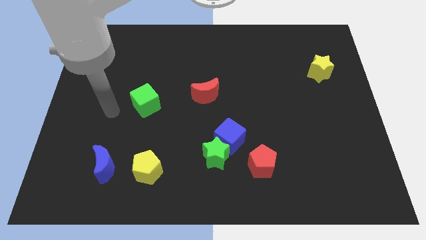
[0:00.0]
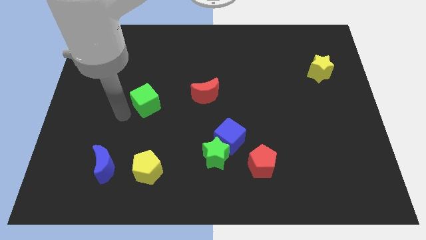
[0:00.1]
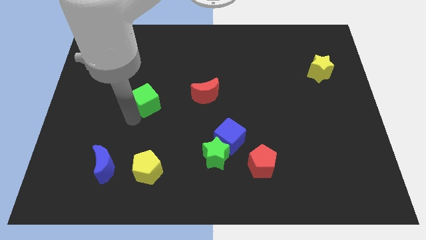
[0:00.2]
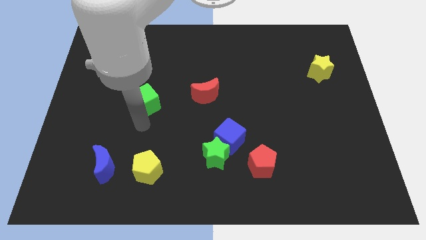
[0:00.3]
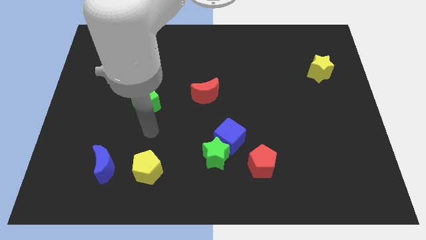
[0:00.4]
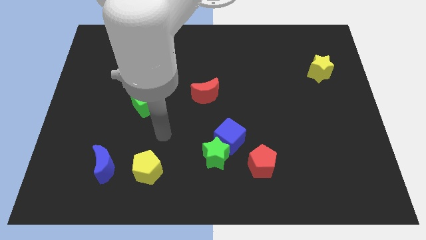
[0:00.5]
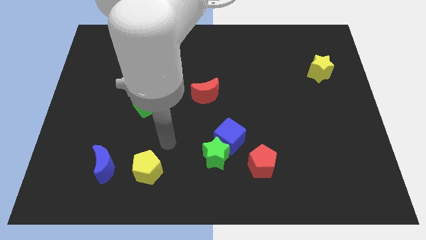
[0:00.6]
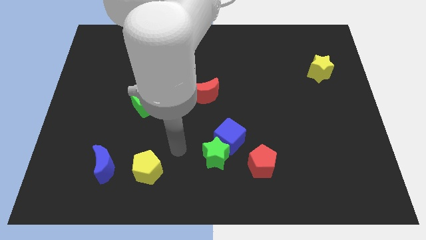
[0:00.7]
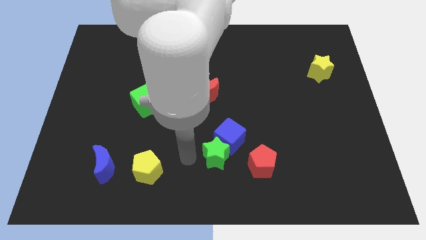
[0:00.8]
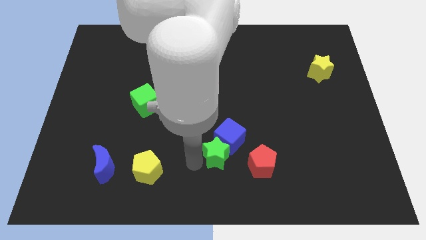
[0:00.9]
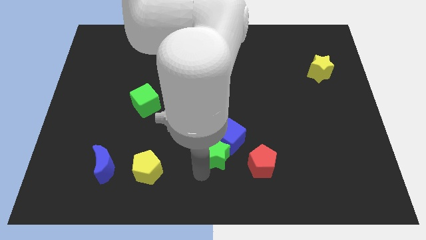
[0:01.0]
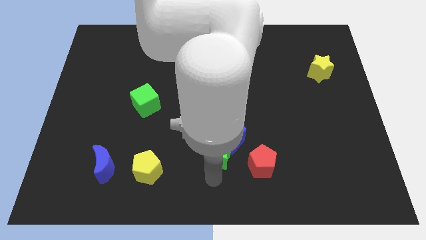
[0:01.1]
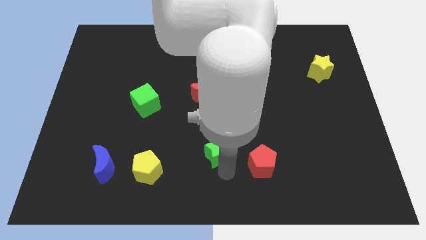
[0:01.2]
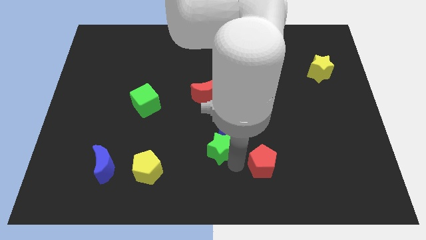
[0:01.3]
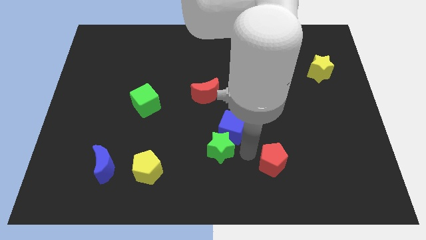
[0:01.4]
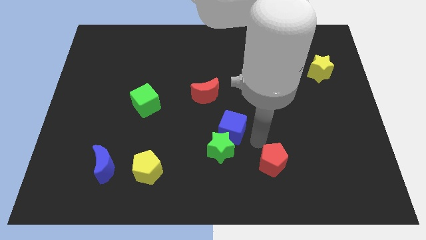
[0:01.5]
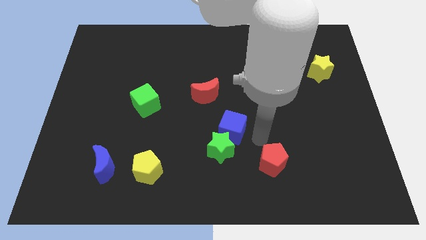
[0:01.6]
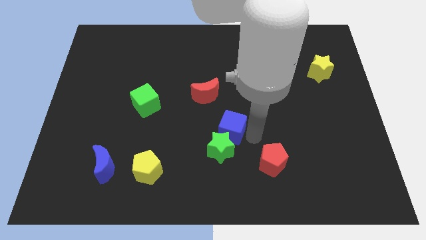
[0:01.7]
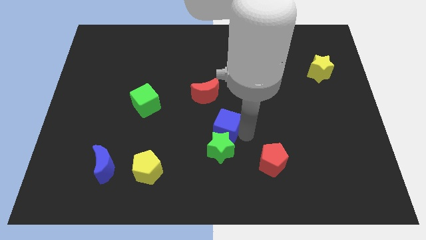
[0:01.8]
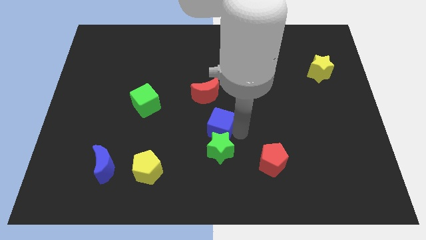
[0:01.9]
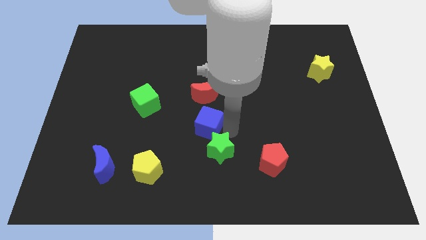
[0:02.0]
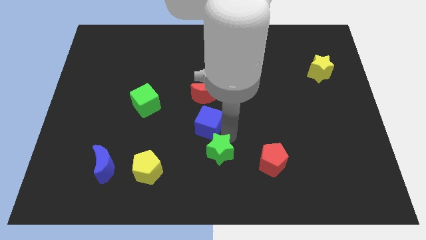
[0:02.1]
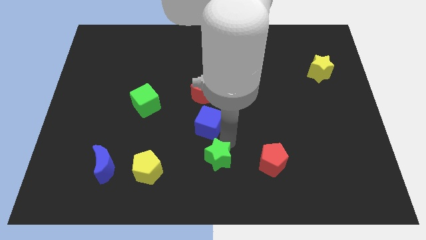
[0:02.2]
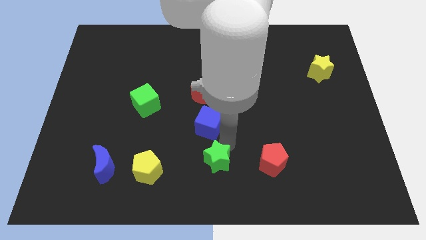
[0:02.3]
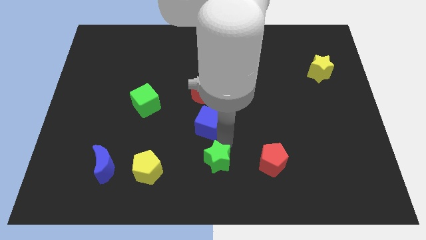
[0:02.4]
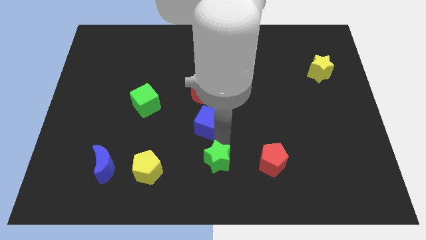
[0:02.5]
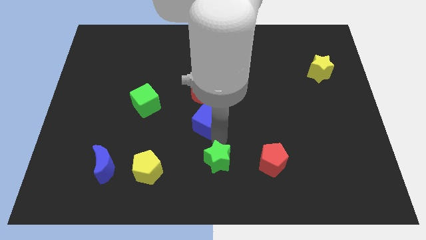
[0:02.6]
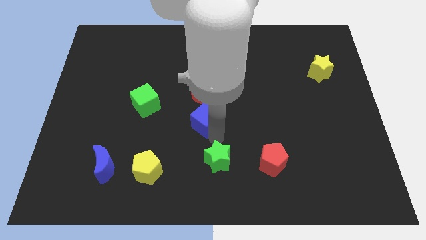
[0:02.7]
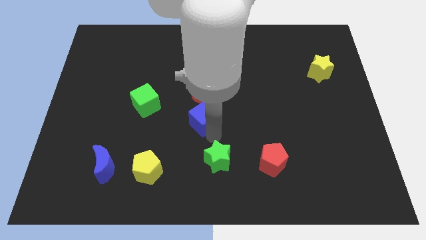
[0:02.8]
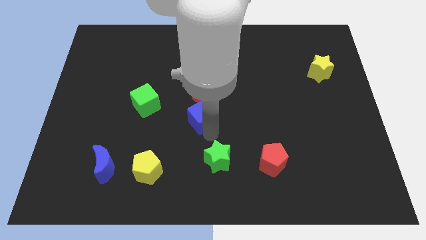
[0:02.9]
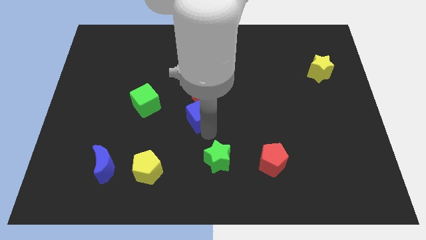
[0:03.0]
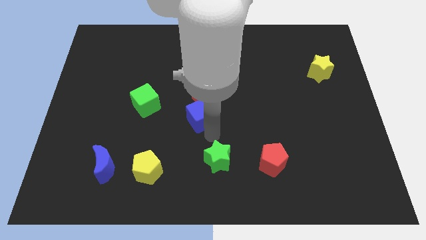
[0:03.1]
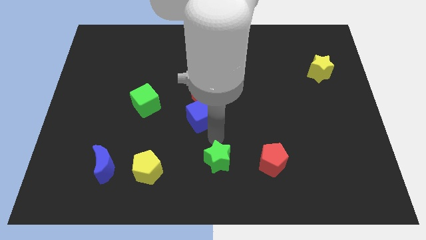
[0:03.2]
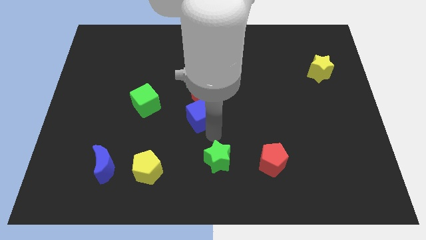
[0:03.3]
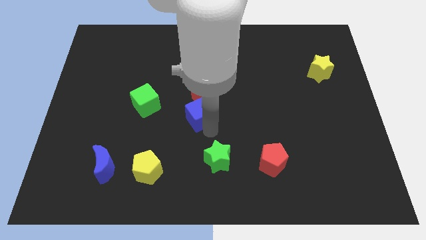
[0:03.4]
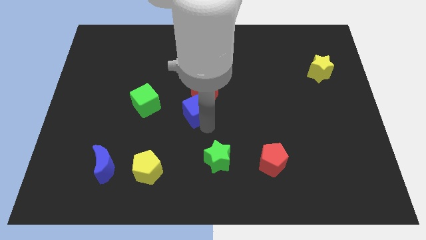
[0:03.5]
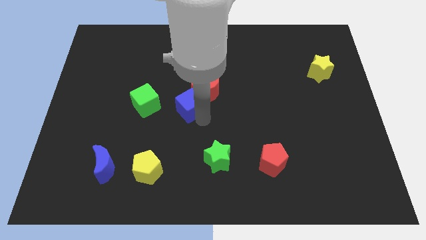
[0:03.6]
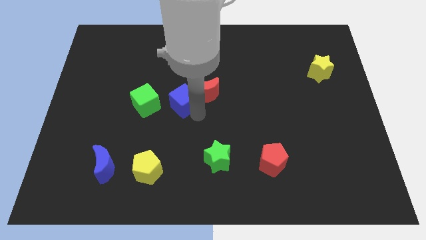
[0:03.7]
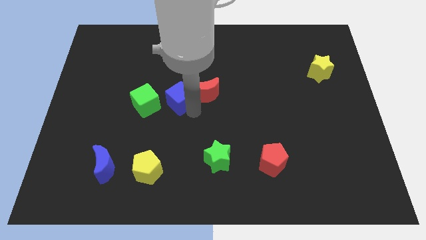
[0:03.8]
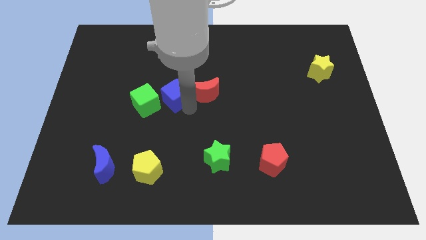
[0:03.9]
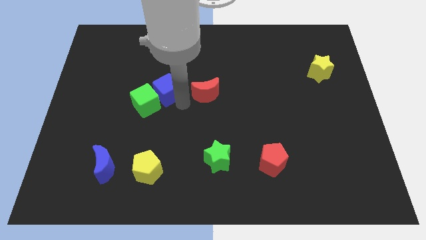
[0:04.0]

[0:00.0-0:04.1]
push the blue cube up and left diagonally

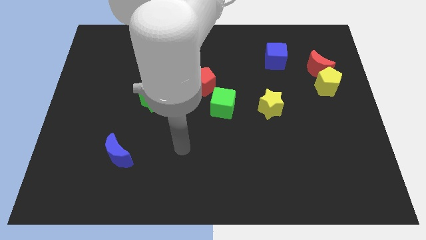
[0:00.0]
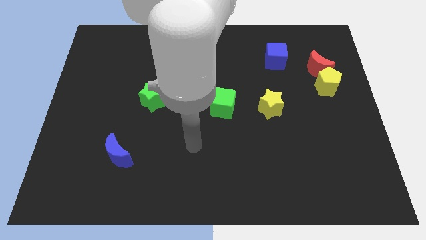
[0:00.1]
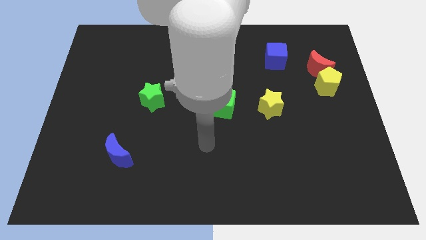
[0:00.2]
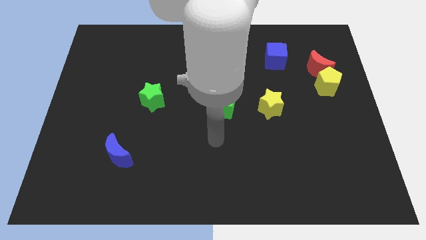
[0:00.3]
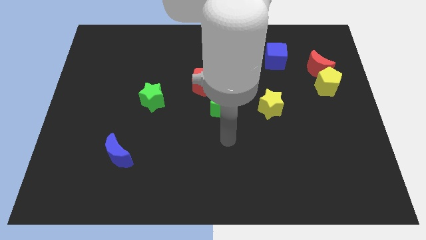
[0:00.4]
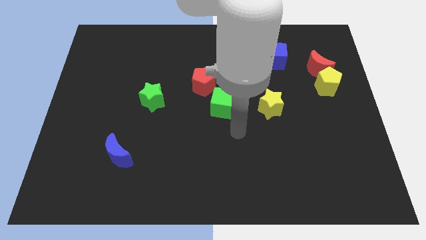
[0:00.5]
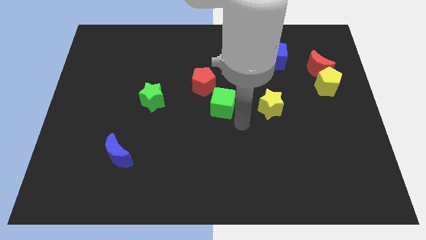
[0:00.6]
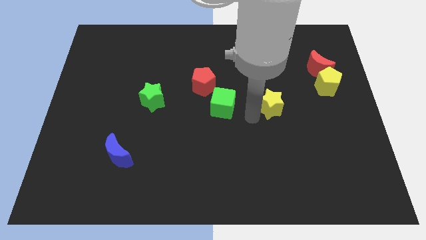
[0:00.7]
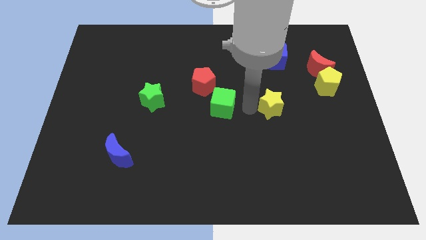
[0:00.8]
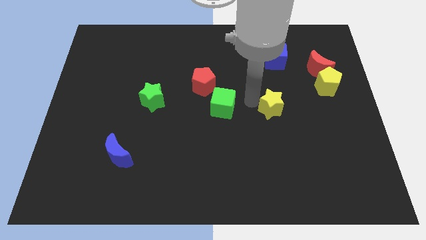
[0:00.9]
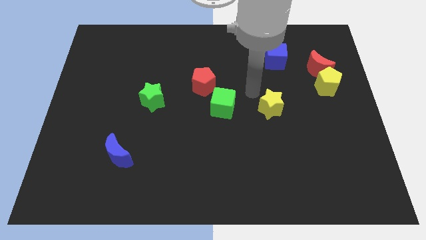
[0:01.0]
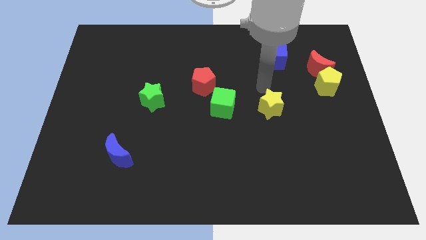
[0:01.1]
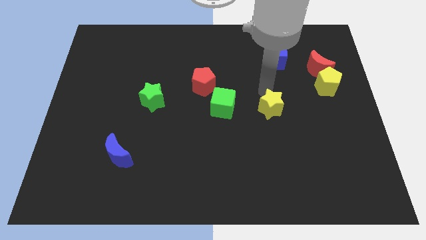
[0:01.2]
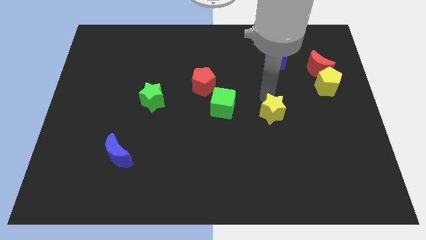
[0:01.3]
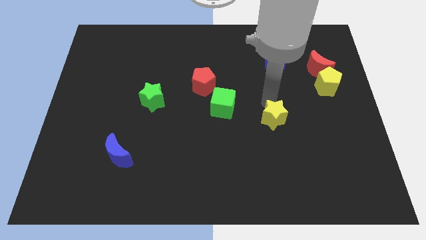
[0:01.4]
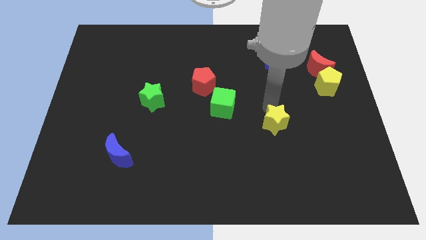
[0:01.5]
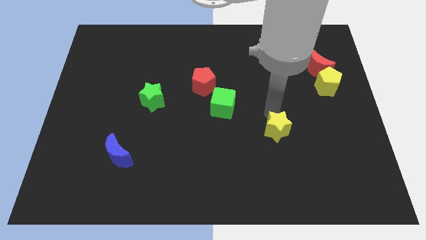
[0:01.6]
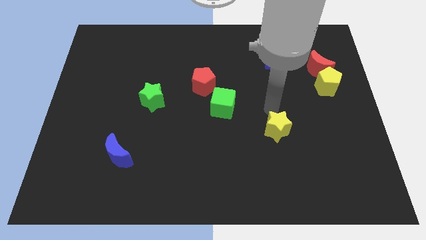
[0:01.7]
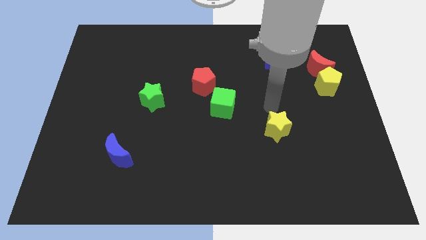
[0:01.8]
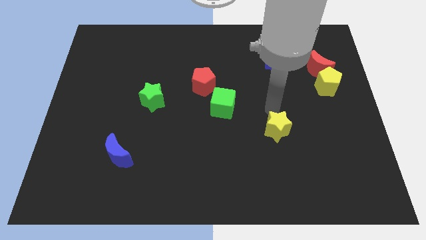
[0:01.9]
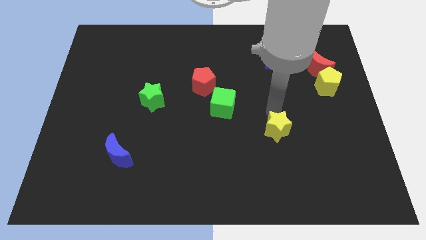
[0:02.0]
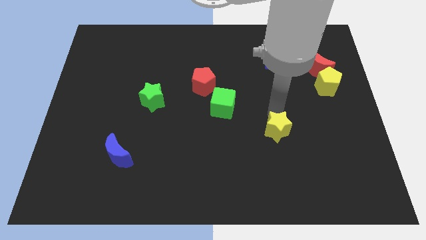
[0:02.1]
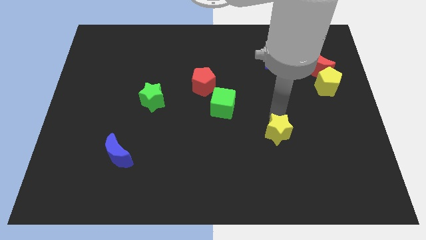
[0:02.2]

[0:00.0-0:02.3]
slightly slide the yellow star down

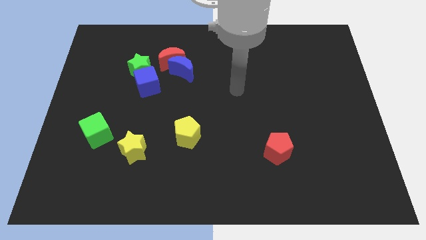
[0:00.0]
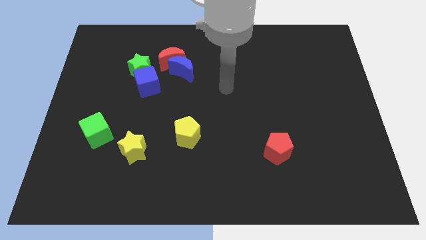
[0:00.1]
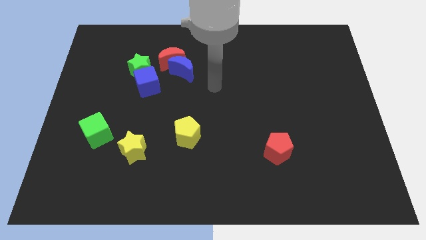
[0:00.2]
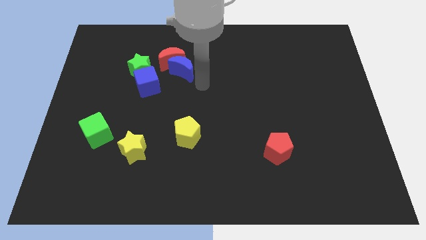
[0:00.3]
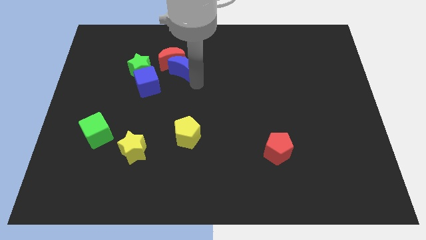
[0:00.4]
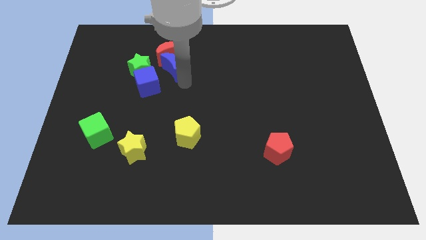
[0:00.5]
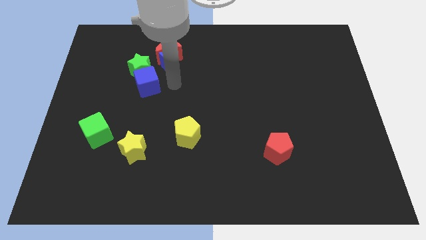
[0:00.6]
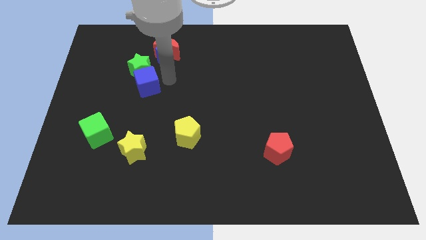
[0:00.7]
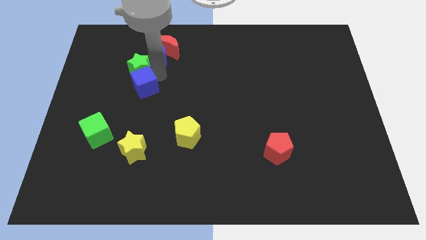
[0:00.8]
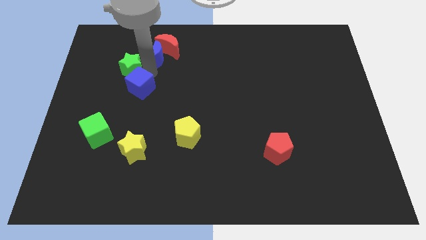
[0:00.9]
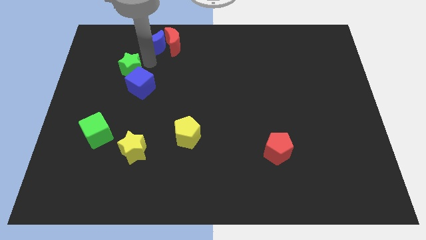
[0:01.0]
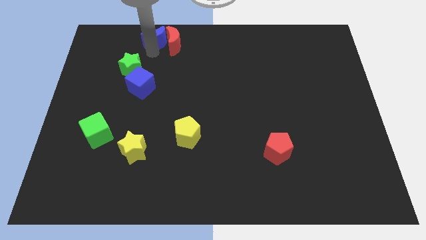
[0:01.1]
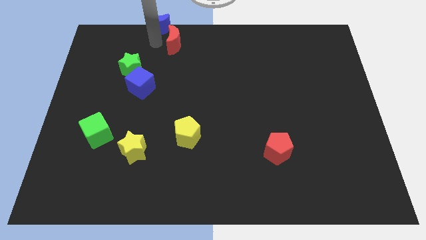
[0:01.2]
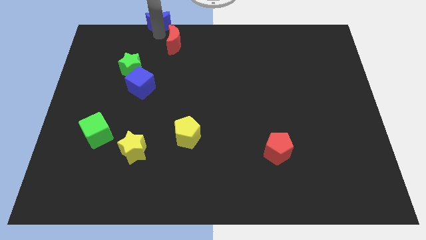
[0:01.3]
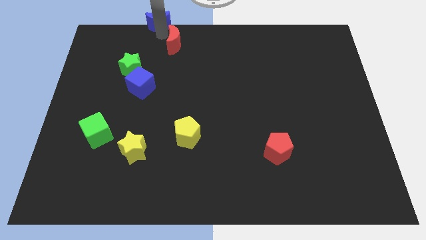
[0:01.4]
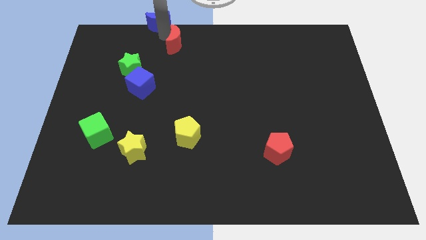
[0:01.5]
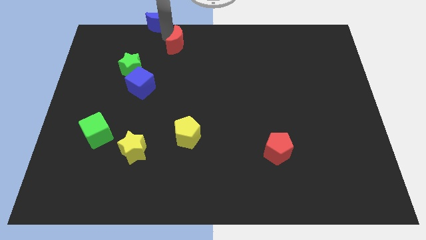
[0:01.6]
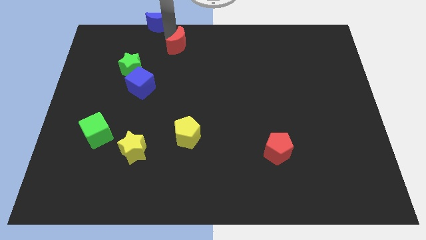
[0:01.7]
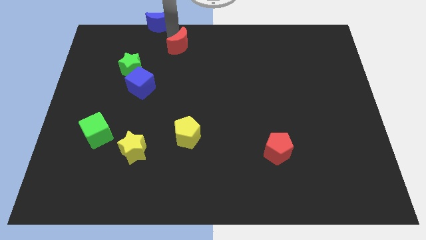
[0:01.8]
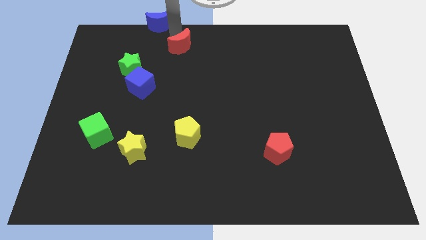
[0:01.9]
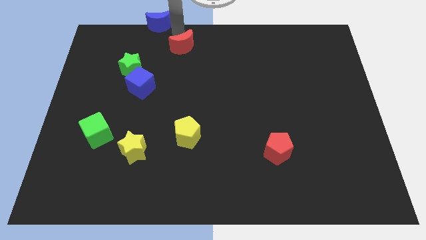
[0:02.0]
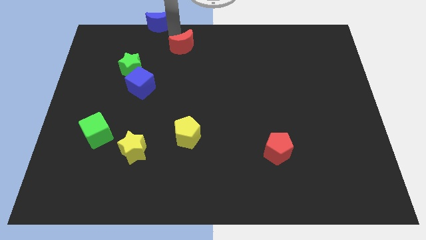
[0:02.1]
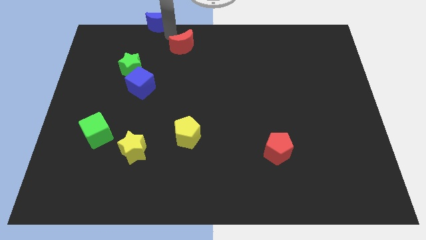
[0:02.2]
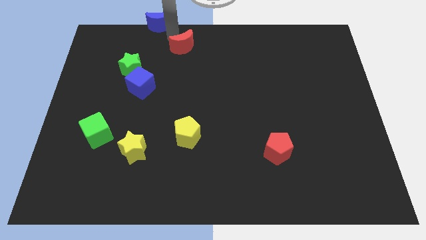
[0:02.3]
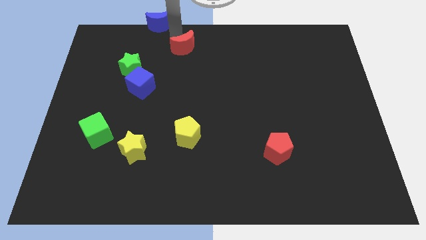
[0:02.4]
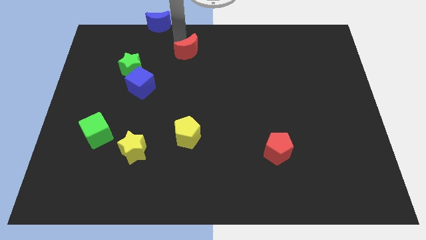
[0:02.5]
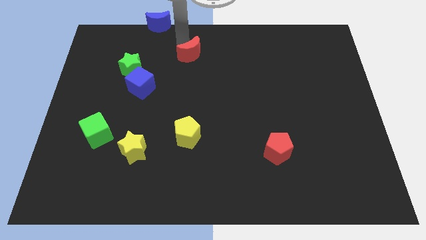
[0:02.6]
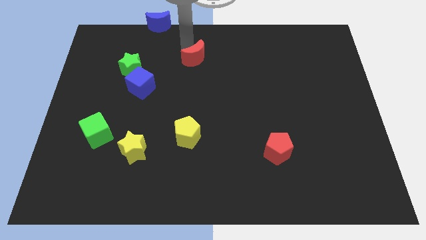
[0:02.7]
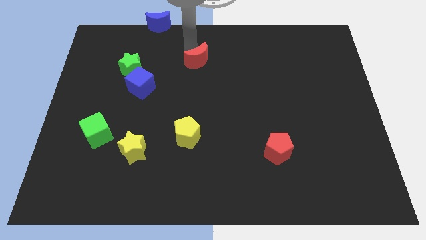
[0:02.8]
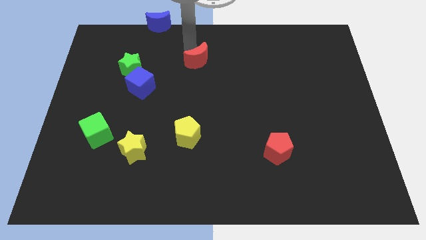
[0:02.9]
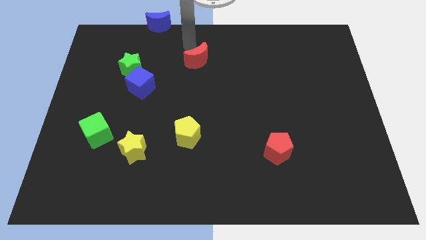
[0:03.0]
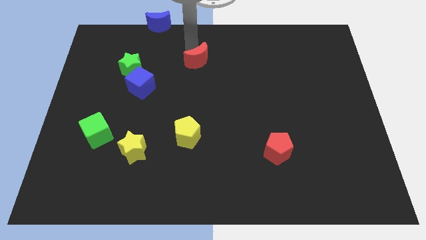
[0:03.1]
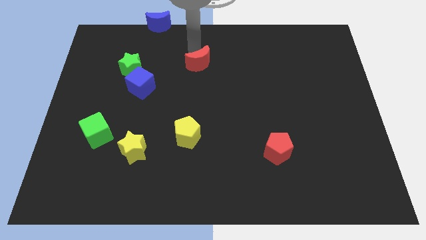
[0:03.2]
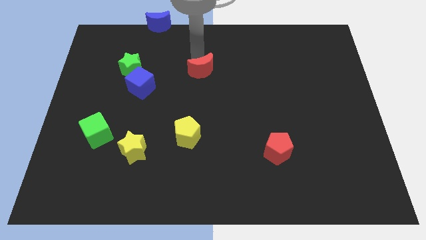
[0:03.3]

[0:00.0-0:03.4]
slide the red moon down and right diagonally somewhat
